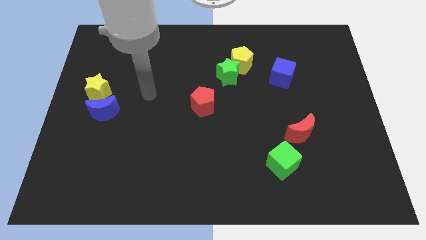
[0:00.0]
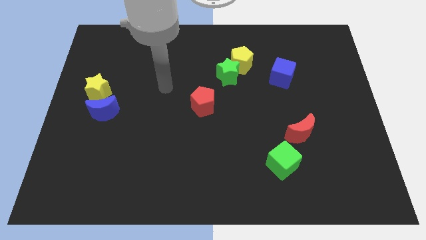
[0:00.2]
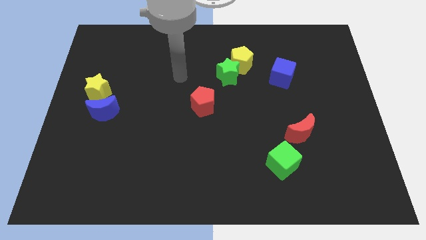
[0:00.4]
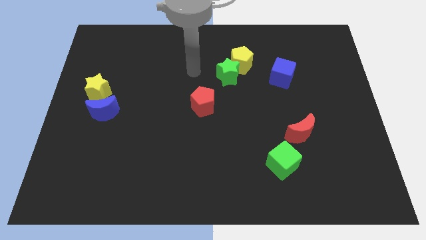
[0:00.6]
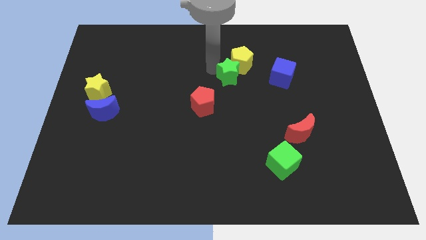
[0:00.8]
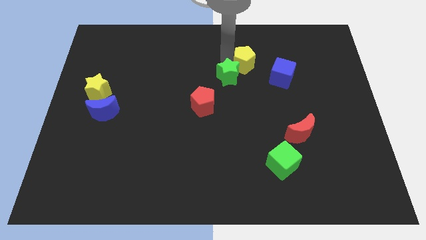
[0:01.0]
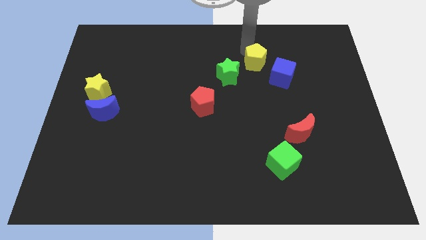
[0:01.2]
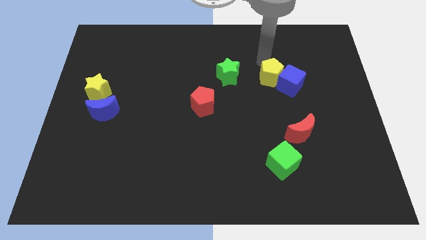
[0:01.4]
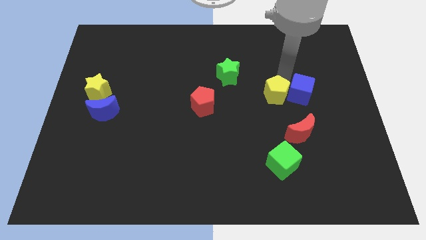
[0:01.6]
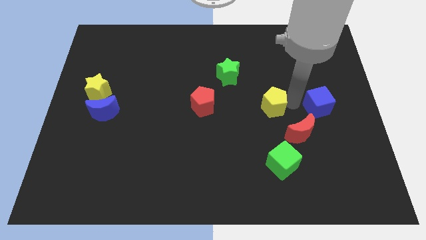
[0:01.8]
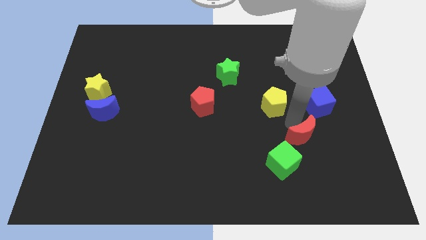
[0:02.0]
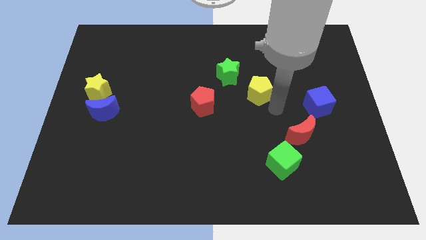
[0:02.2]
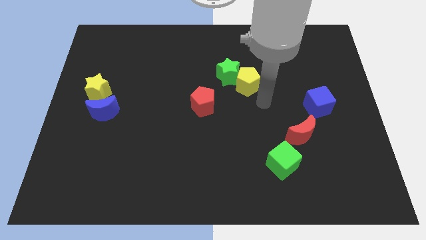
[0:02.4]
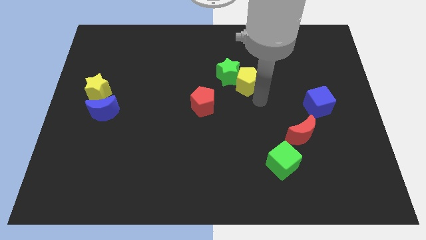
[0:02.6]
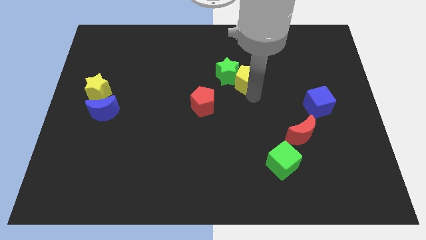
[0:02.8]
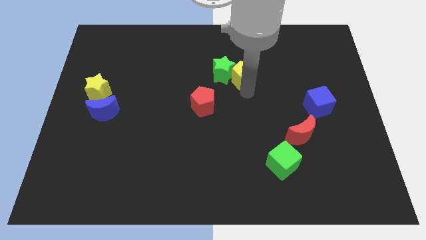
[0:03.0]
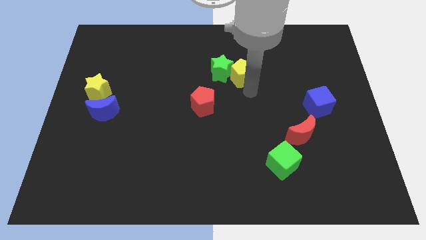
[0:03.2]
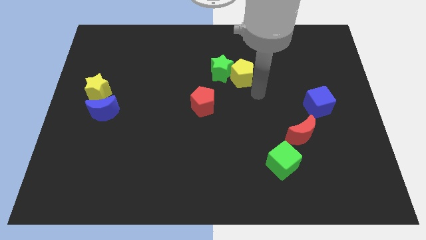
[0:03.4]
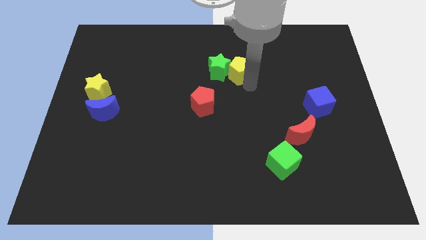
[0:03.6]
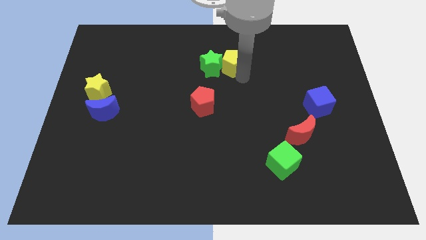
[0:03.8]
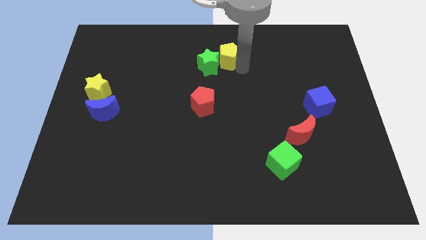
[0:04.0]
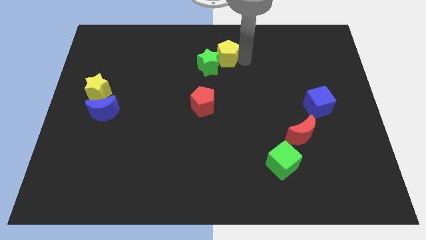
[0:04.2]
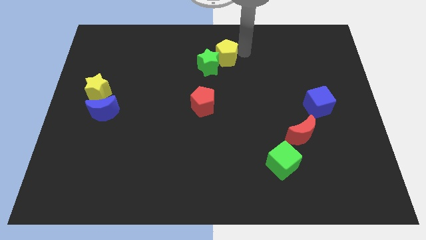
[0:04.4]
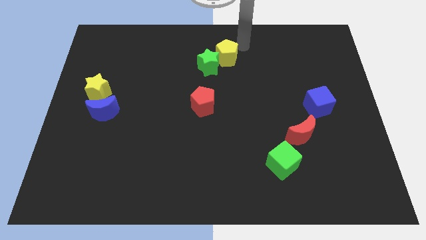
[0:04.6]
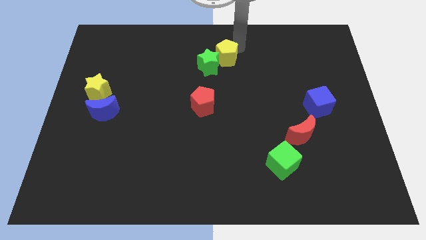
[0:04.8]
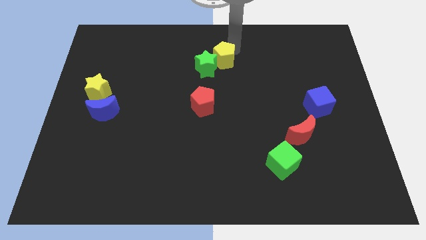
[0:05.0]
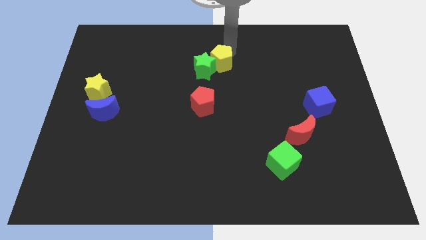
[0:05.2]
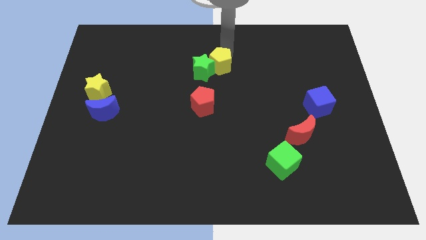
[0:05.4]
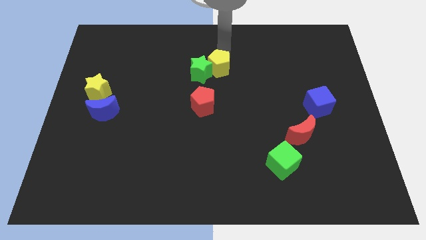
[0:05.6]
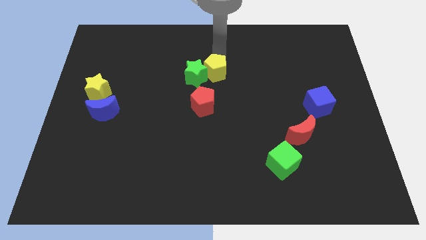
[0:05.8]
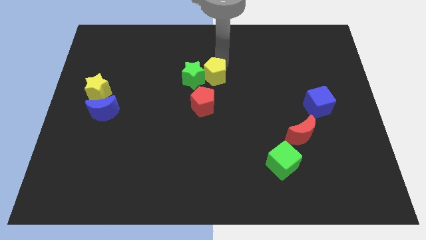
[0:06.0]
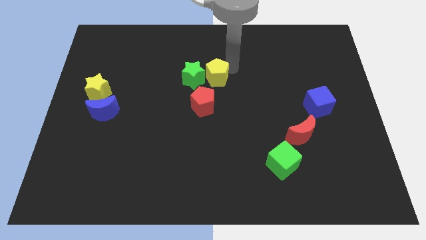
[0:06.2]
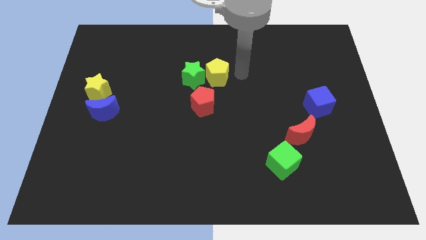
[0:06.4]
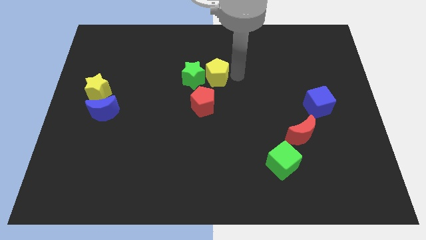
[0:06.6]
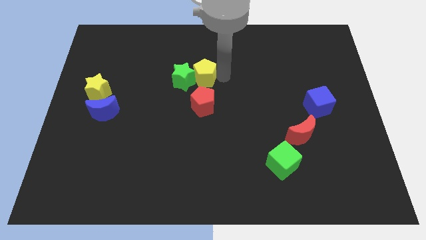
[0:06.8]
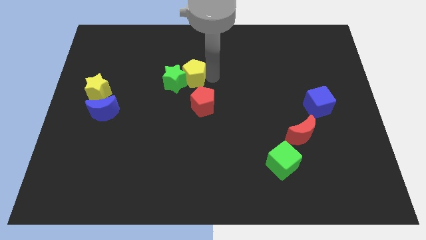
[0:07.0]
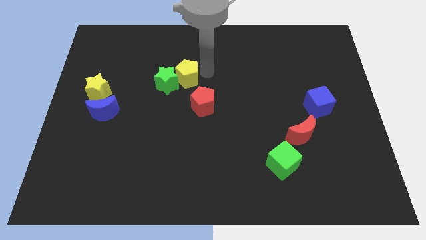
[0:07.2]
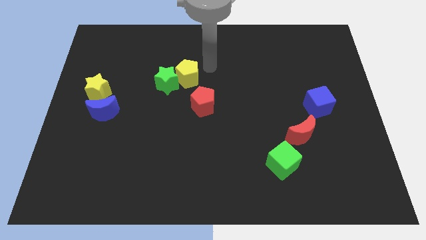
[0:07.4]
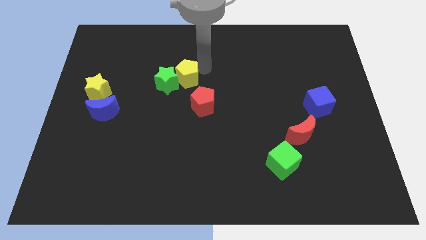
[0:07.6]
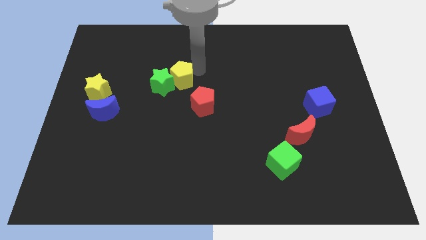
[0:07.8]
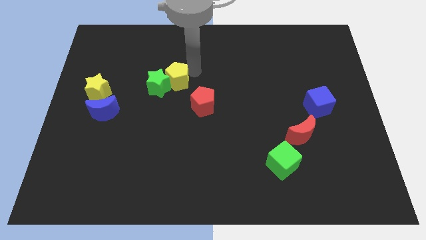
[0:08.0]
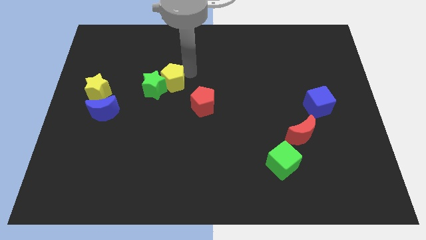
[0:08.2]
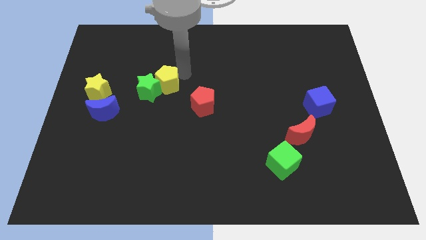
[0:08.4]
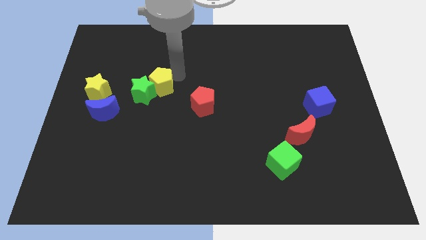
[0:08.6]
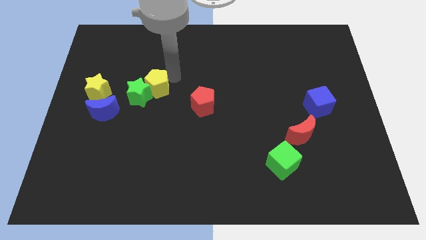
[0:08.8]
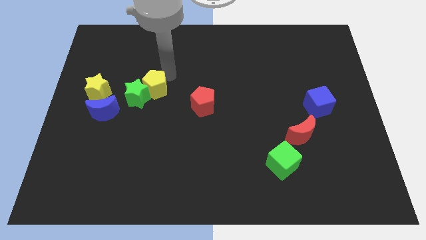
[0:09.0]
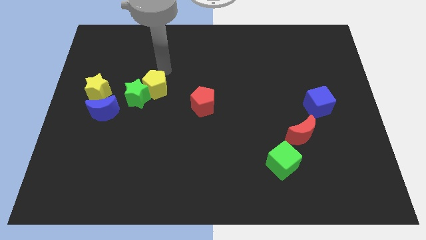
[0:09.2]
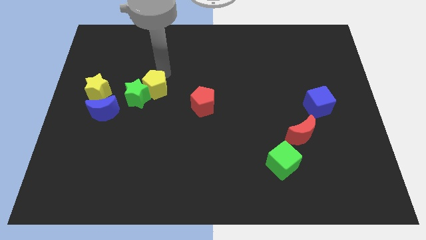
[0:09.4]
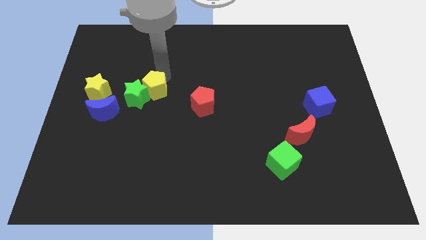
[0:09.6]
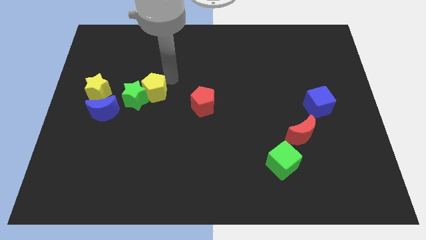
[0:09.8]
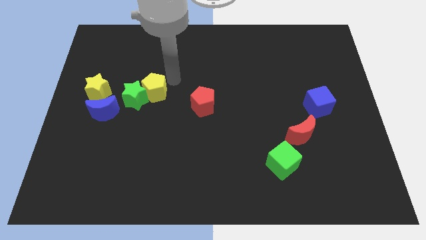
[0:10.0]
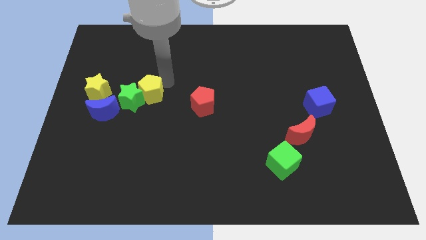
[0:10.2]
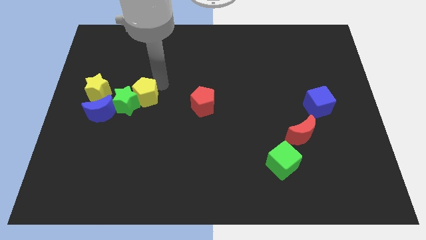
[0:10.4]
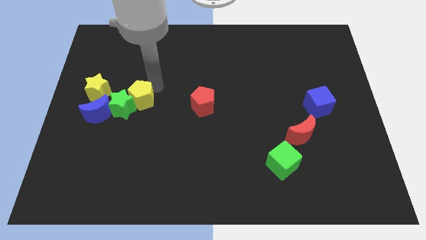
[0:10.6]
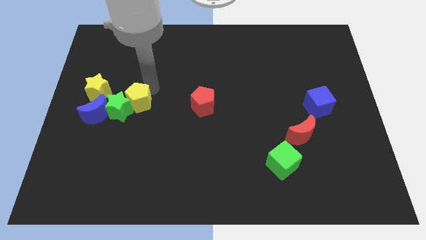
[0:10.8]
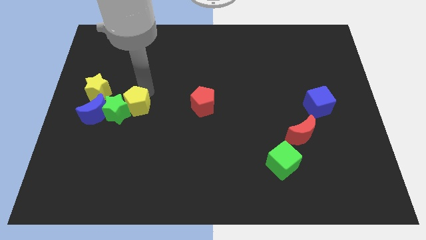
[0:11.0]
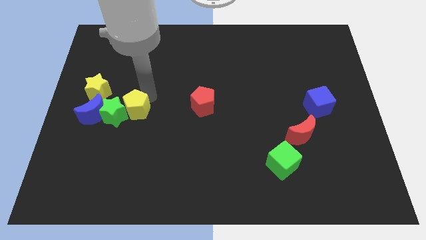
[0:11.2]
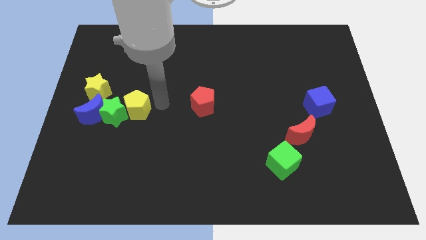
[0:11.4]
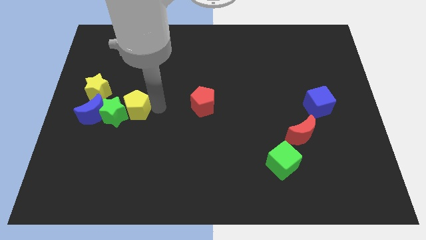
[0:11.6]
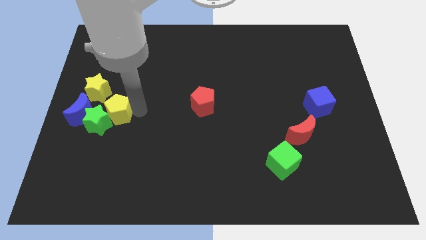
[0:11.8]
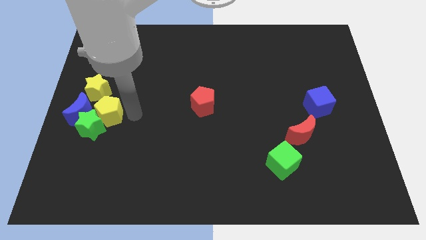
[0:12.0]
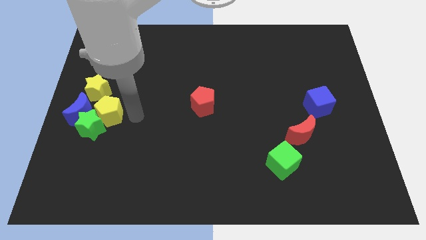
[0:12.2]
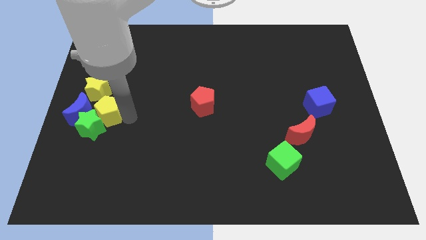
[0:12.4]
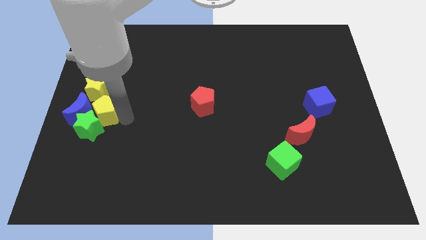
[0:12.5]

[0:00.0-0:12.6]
slide the yellow pentagon next to the blue moon
